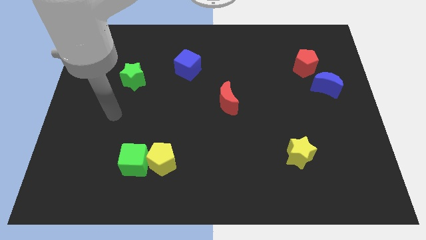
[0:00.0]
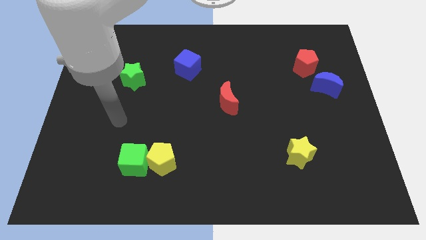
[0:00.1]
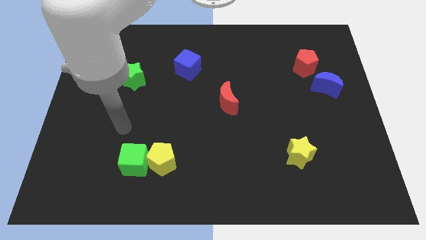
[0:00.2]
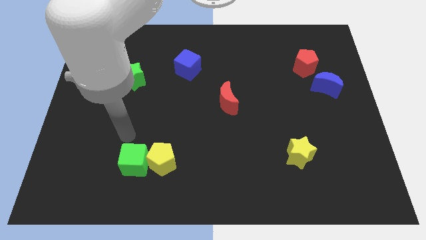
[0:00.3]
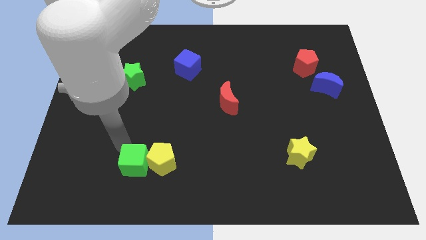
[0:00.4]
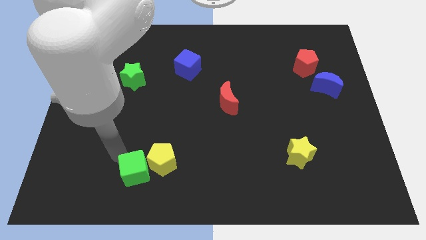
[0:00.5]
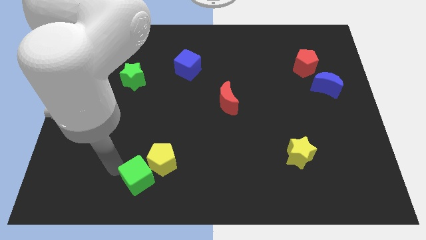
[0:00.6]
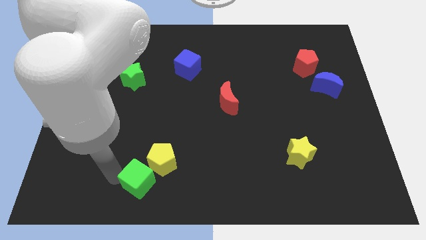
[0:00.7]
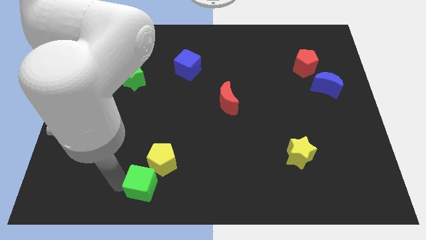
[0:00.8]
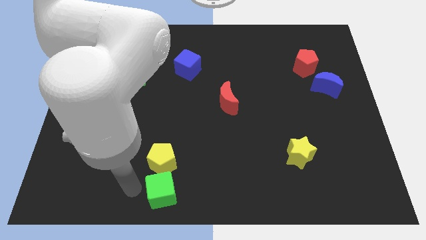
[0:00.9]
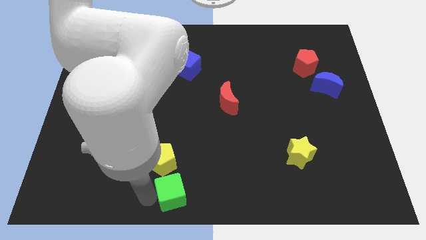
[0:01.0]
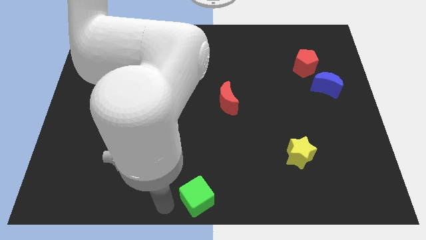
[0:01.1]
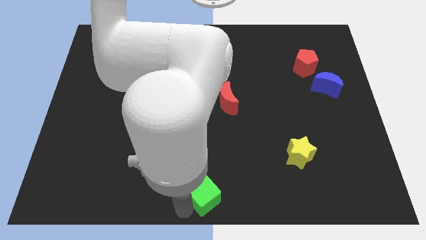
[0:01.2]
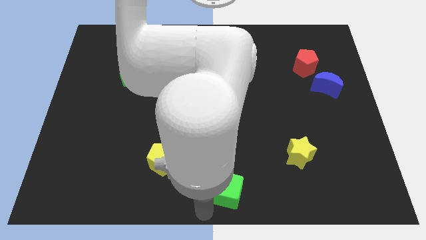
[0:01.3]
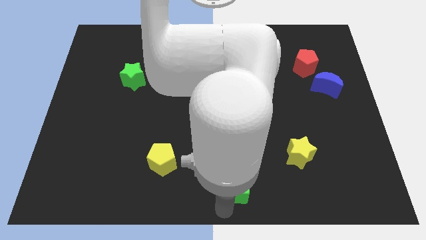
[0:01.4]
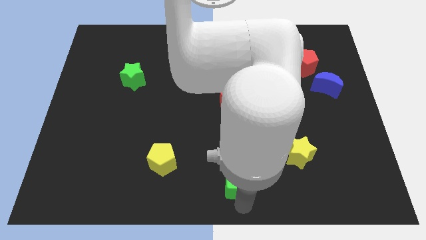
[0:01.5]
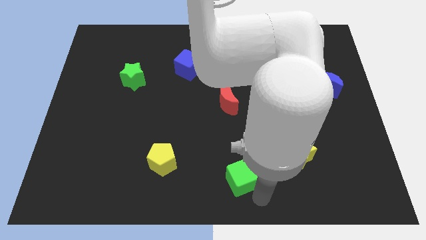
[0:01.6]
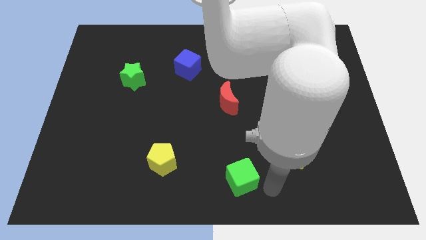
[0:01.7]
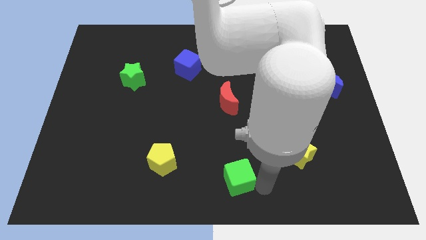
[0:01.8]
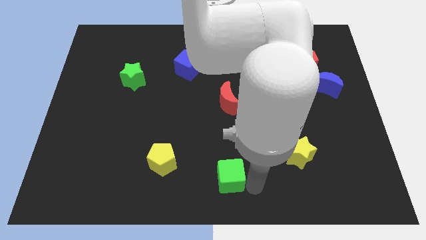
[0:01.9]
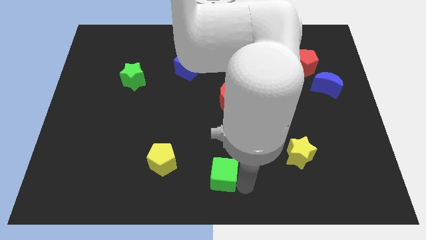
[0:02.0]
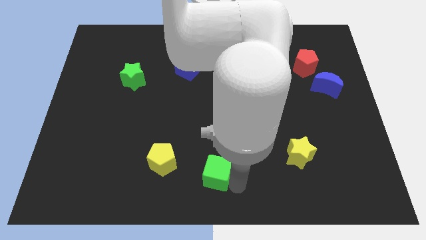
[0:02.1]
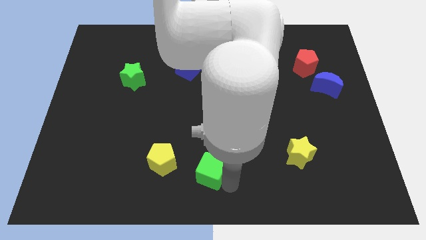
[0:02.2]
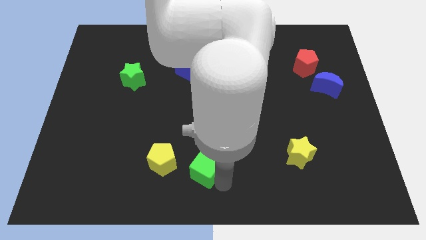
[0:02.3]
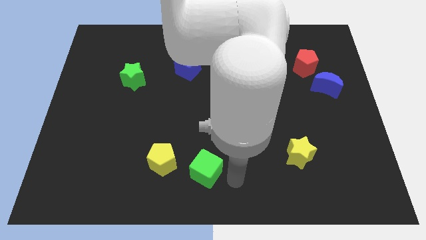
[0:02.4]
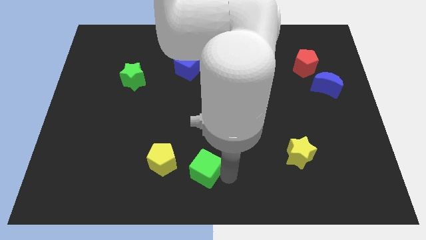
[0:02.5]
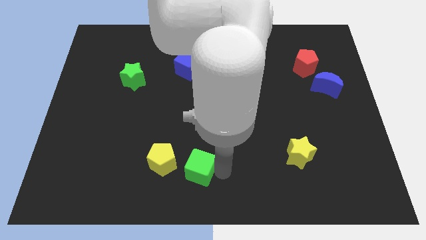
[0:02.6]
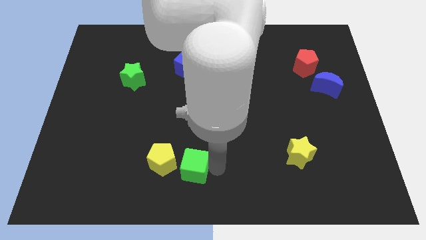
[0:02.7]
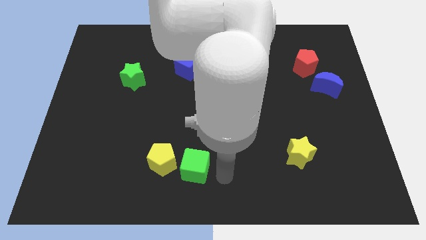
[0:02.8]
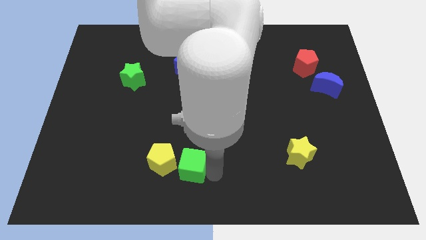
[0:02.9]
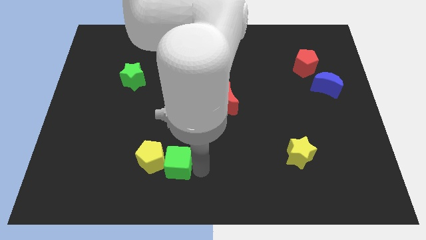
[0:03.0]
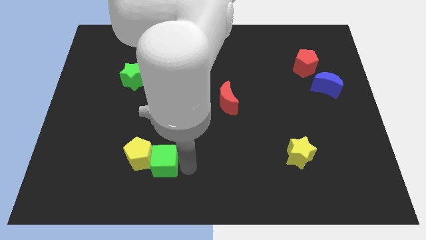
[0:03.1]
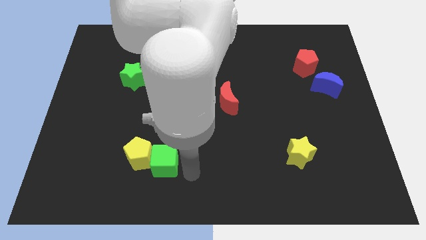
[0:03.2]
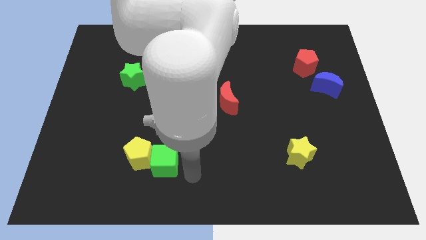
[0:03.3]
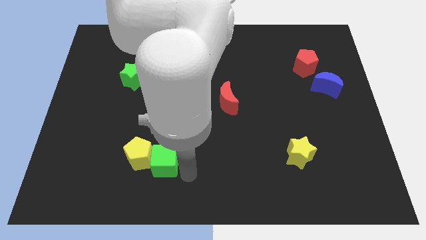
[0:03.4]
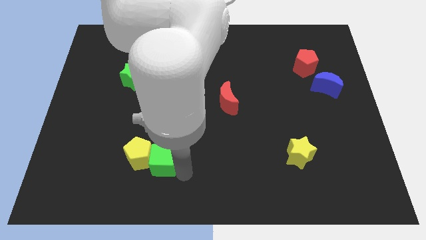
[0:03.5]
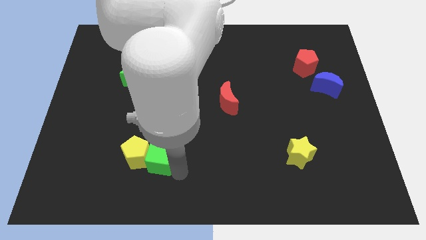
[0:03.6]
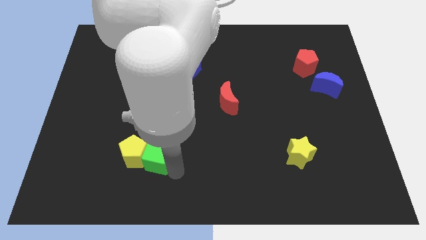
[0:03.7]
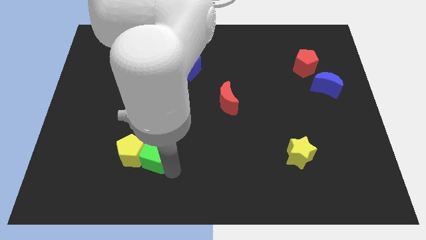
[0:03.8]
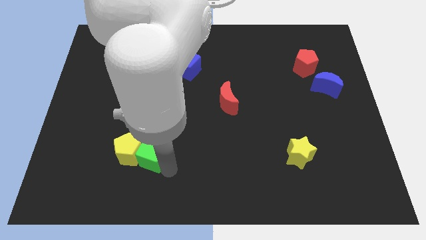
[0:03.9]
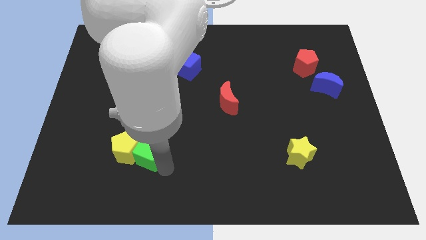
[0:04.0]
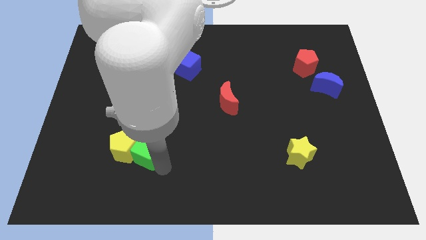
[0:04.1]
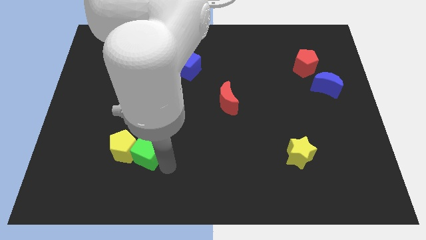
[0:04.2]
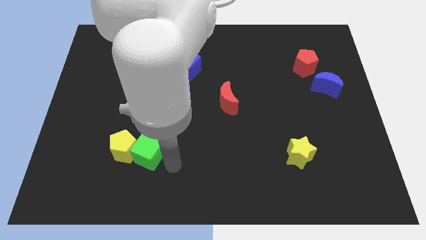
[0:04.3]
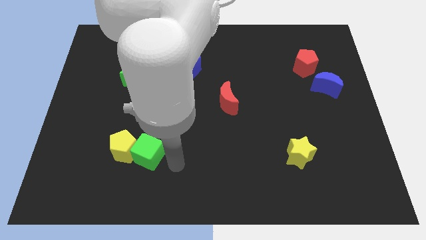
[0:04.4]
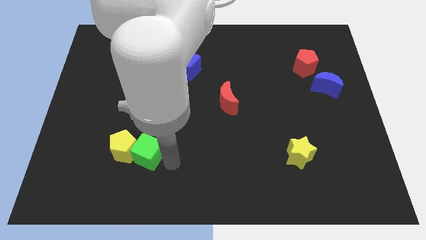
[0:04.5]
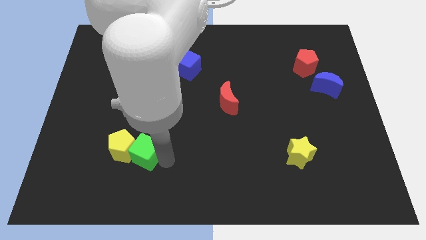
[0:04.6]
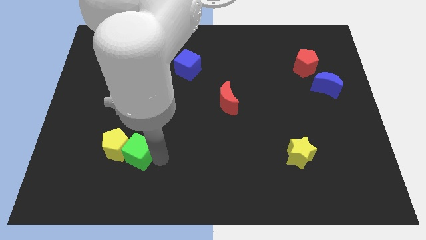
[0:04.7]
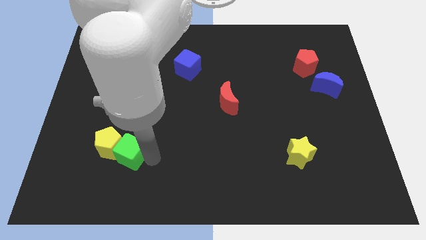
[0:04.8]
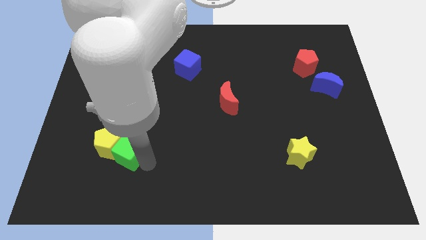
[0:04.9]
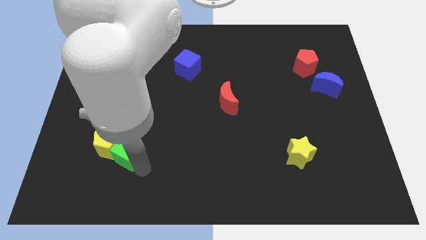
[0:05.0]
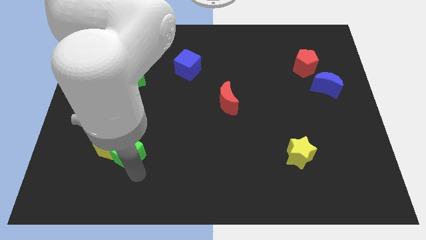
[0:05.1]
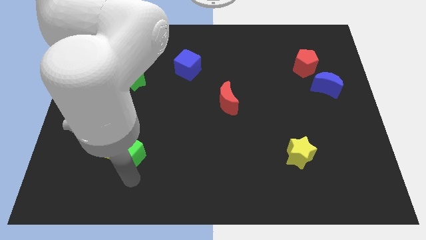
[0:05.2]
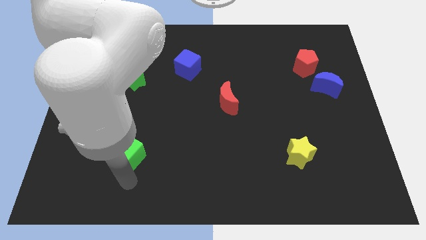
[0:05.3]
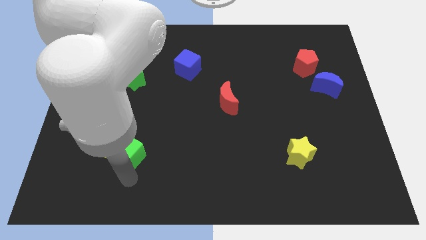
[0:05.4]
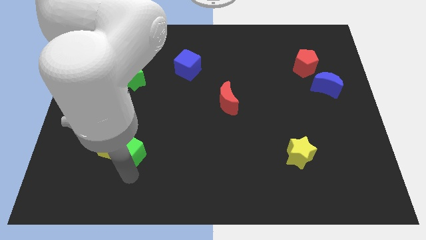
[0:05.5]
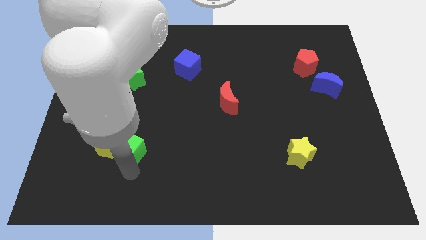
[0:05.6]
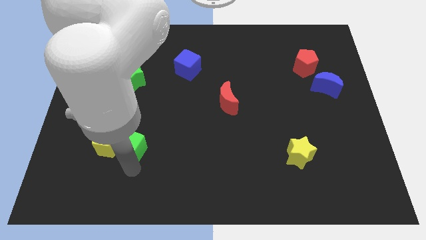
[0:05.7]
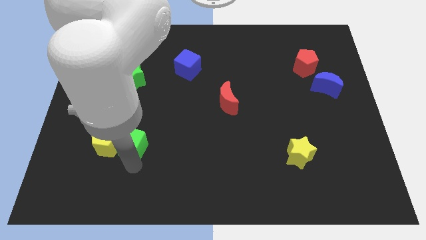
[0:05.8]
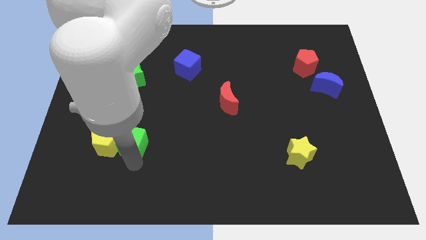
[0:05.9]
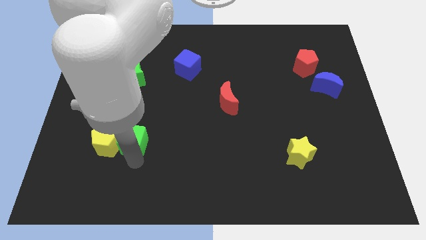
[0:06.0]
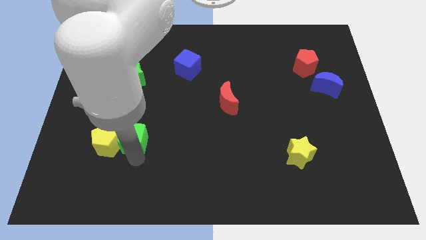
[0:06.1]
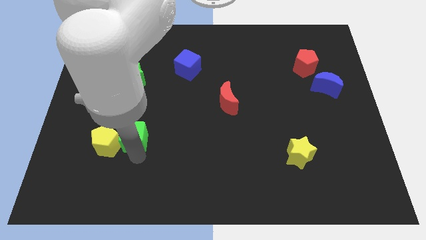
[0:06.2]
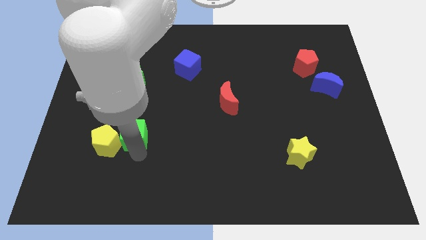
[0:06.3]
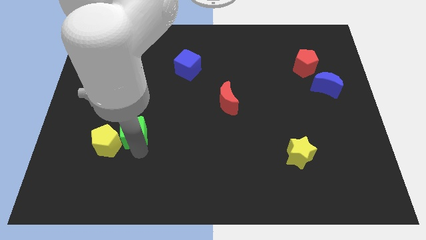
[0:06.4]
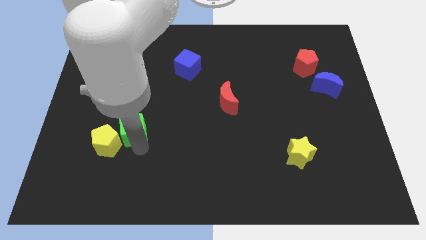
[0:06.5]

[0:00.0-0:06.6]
move the green cube to the bottom of the green star
